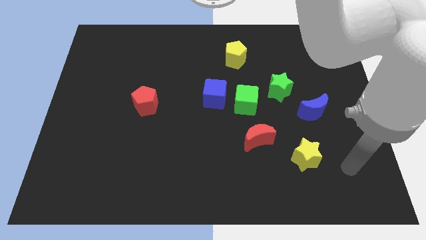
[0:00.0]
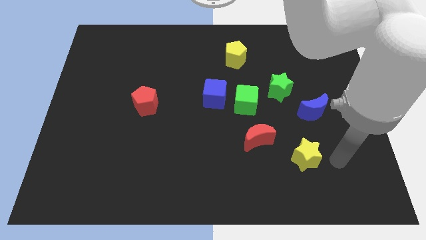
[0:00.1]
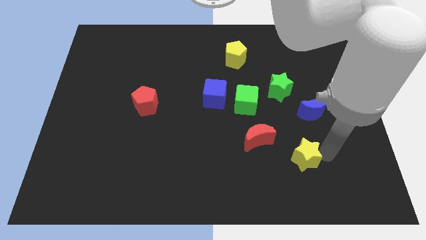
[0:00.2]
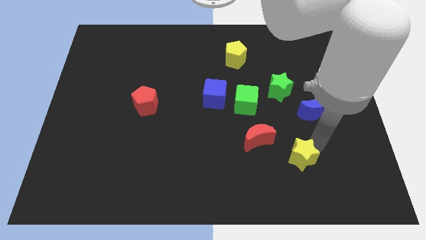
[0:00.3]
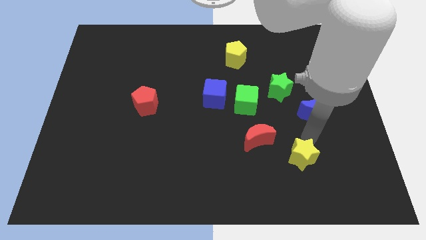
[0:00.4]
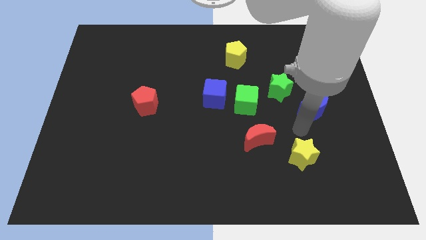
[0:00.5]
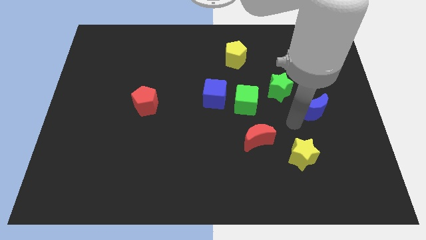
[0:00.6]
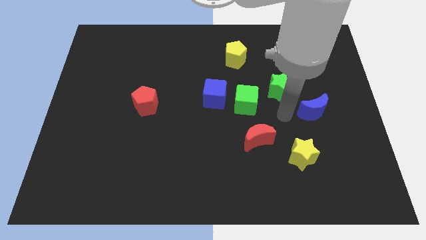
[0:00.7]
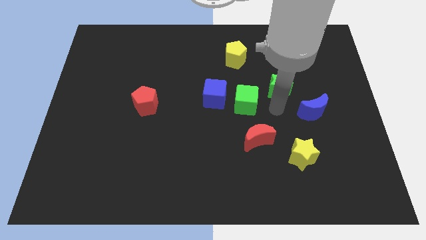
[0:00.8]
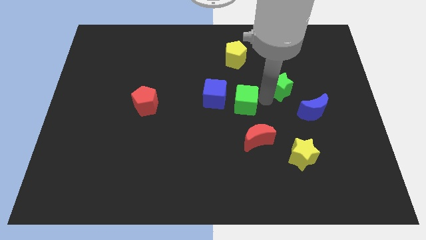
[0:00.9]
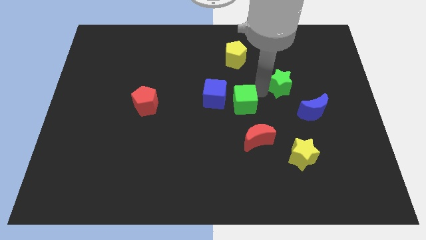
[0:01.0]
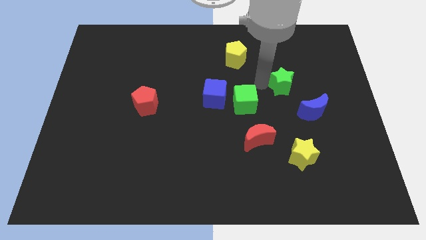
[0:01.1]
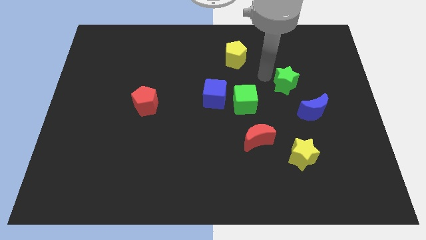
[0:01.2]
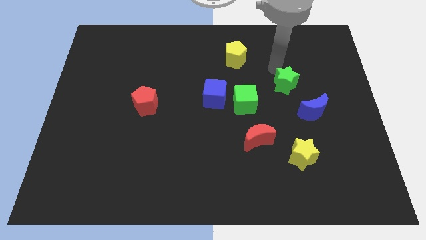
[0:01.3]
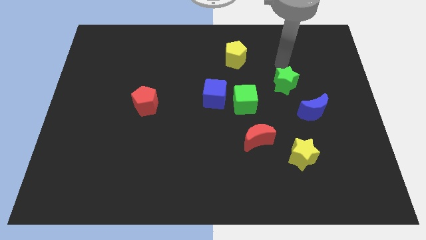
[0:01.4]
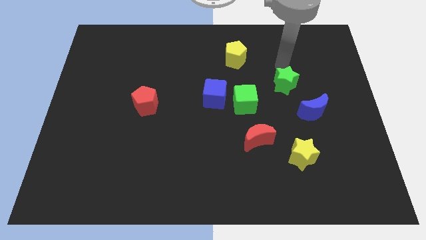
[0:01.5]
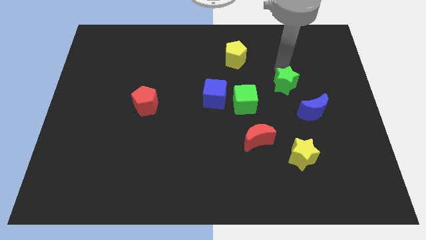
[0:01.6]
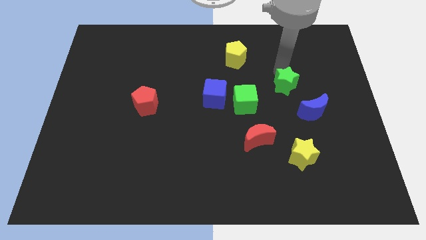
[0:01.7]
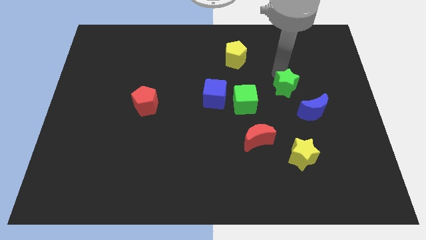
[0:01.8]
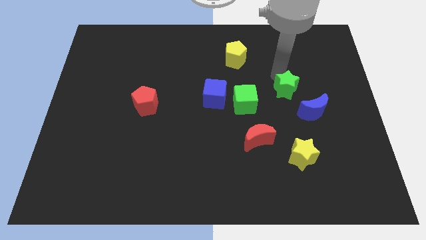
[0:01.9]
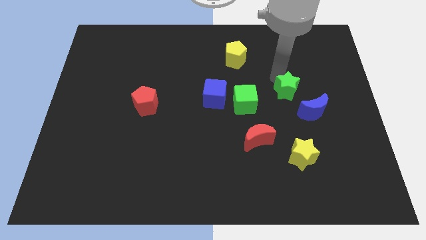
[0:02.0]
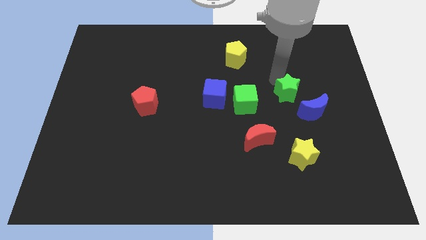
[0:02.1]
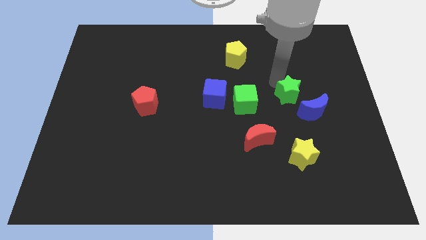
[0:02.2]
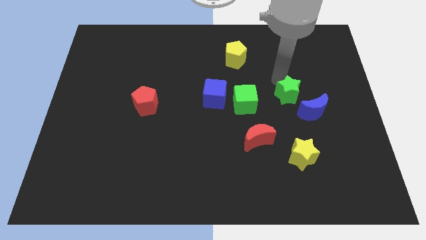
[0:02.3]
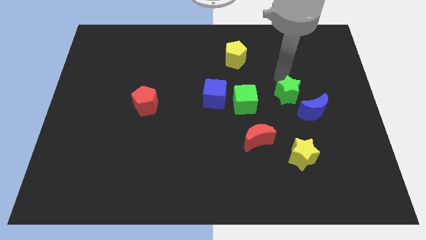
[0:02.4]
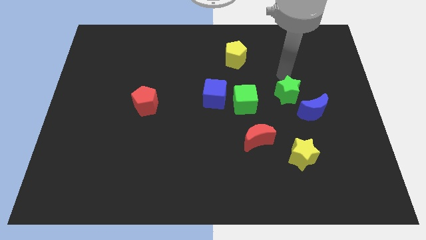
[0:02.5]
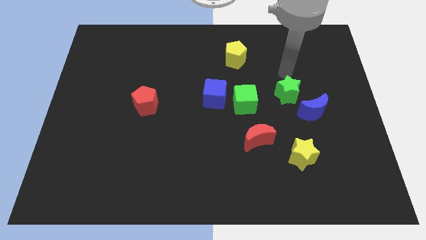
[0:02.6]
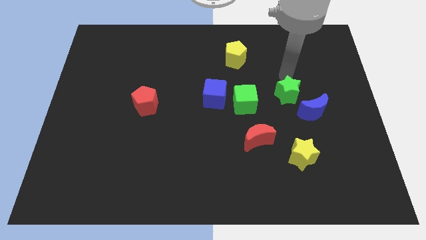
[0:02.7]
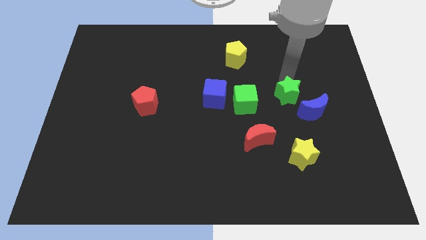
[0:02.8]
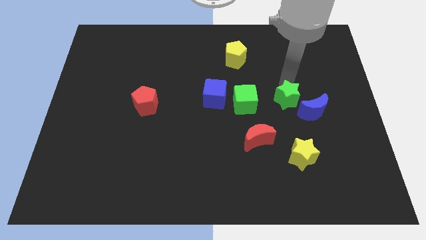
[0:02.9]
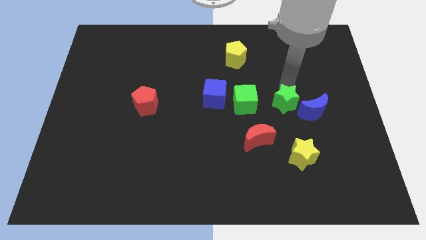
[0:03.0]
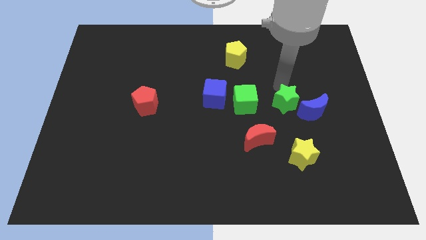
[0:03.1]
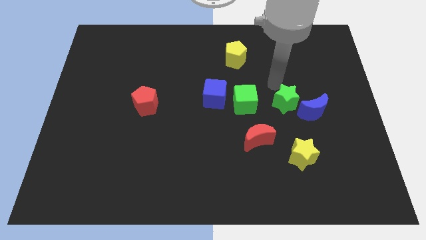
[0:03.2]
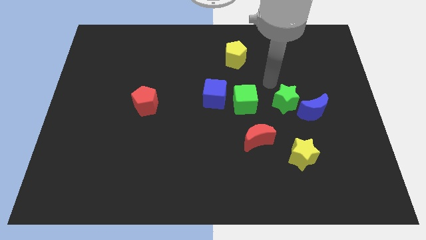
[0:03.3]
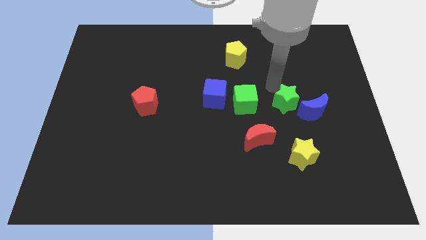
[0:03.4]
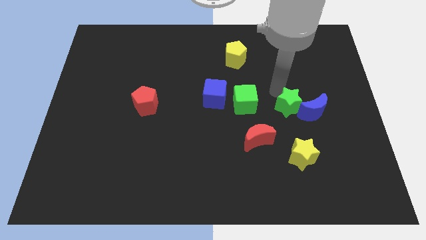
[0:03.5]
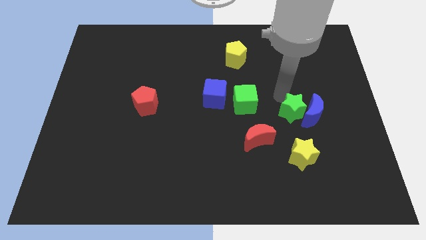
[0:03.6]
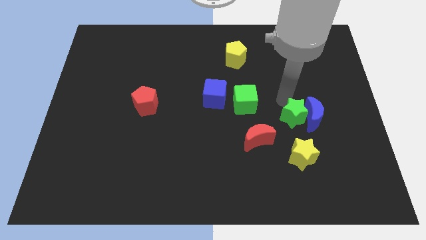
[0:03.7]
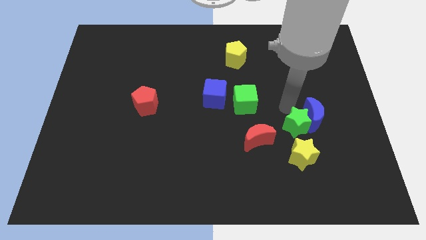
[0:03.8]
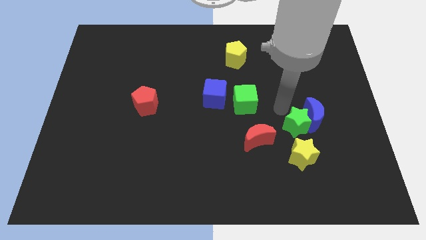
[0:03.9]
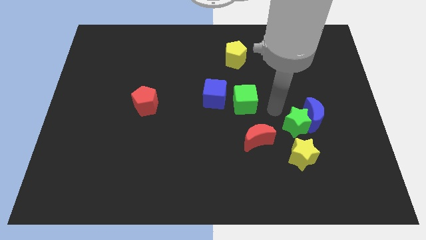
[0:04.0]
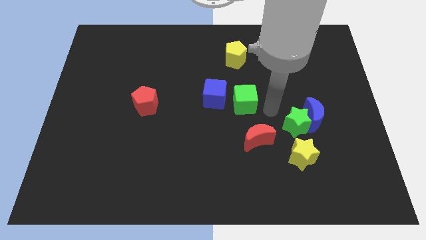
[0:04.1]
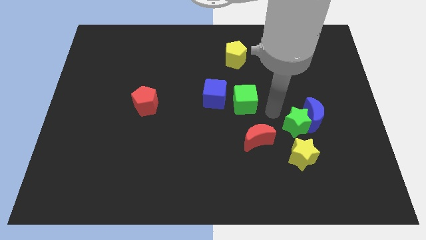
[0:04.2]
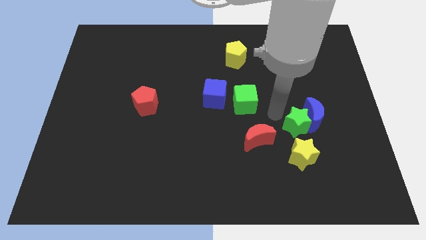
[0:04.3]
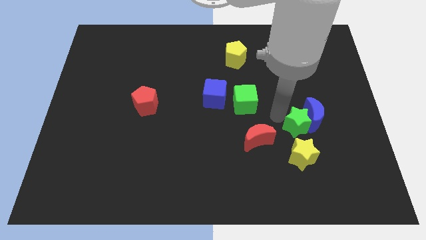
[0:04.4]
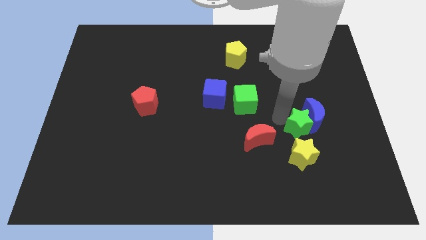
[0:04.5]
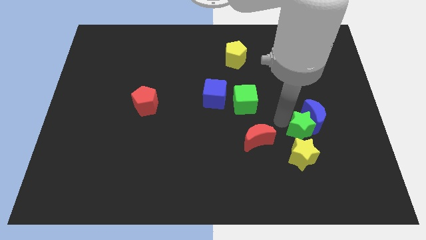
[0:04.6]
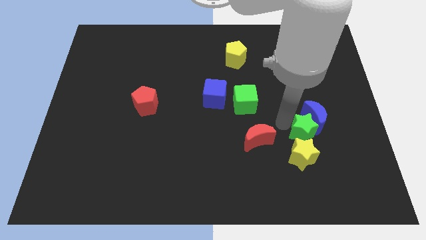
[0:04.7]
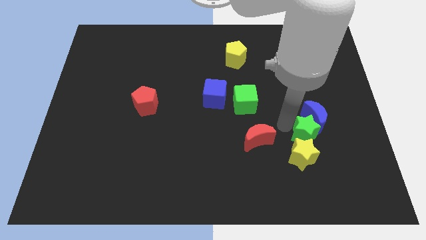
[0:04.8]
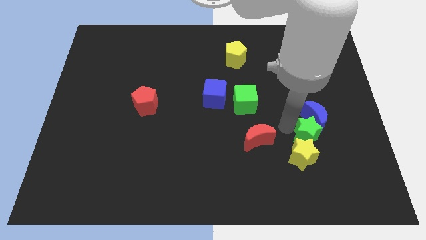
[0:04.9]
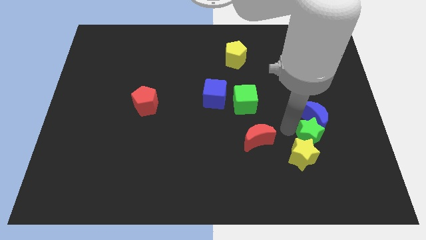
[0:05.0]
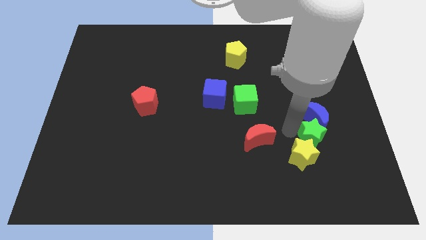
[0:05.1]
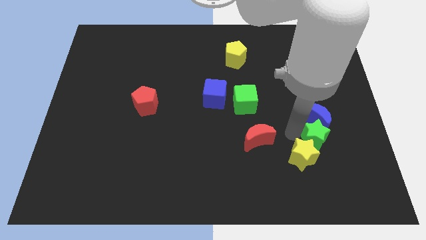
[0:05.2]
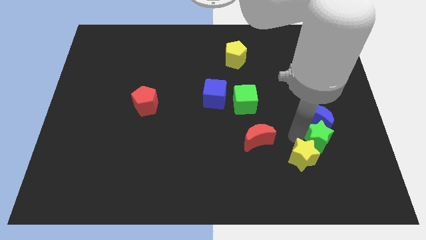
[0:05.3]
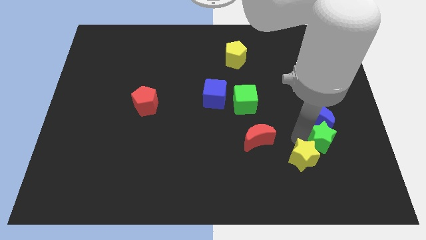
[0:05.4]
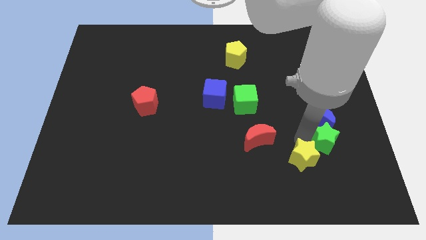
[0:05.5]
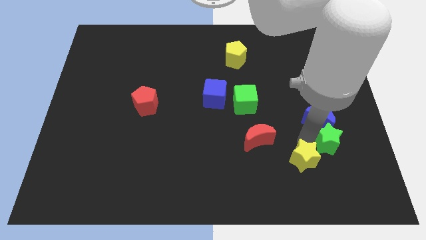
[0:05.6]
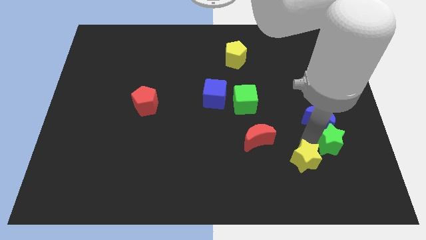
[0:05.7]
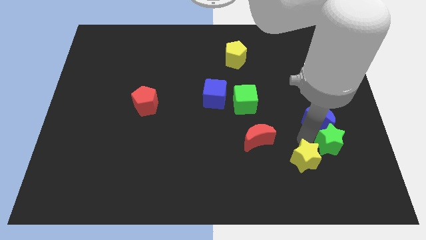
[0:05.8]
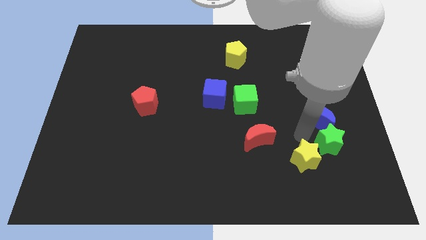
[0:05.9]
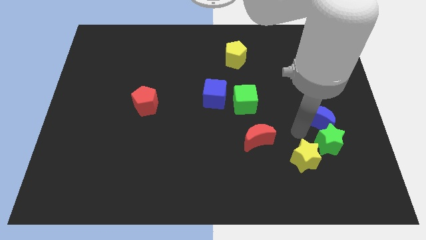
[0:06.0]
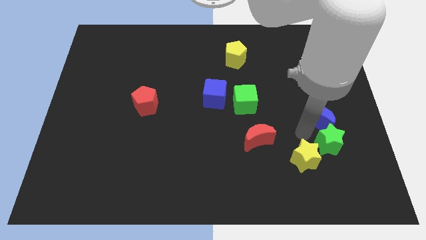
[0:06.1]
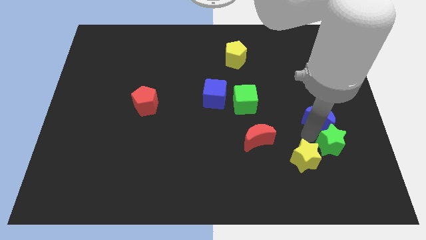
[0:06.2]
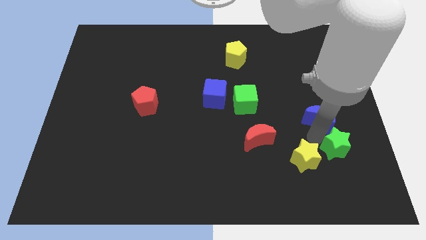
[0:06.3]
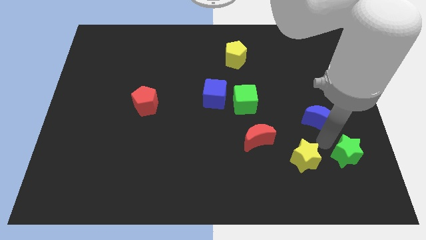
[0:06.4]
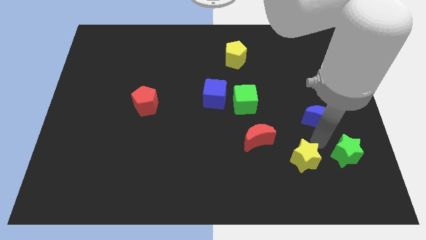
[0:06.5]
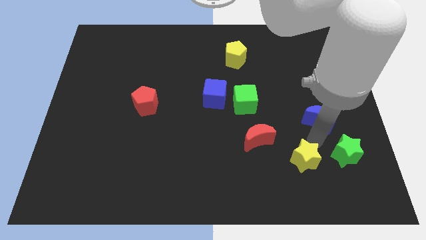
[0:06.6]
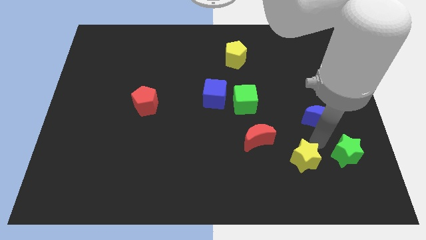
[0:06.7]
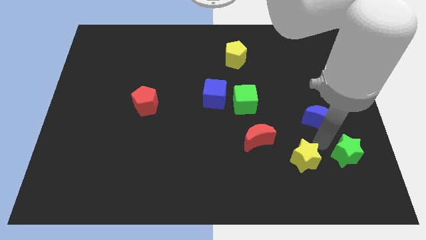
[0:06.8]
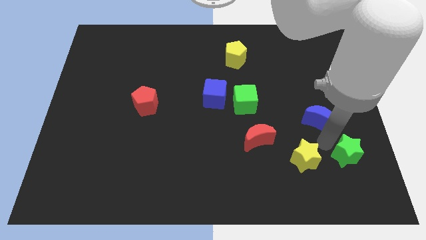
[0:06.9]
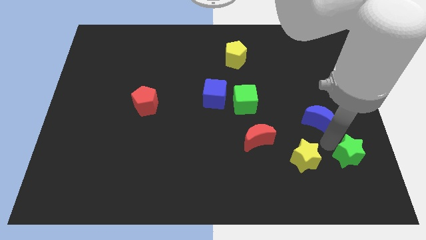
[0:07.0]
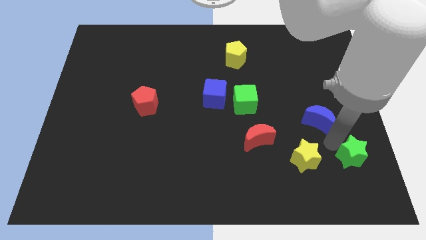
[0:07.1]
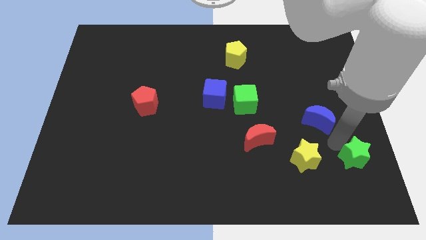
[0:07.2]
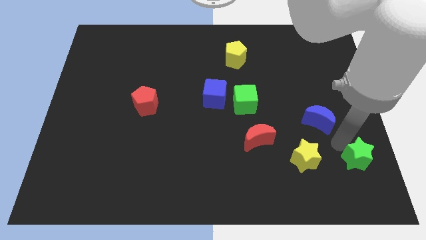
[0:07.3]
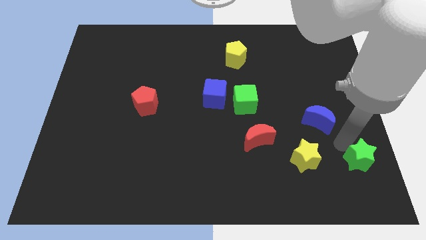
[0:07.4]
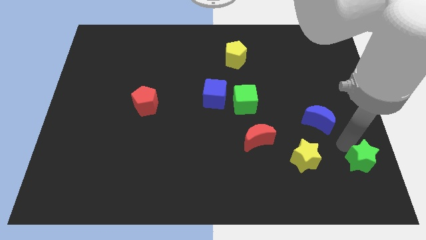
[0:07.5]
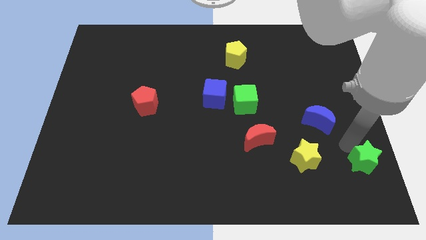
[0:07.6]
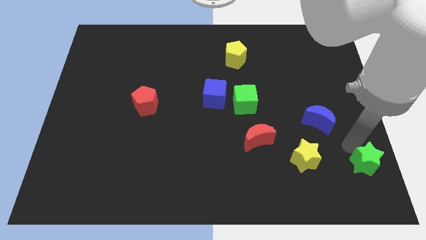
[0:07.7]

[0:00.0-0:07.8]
move the green star to the bottom right of the board
